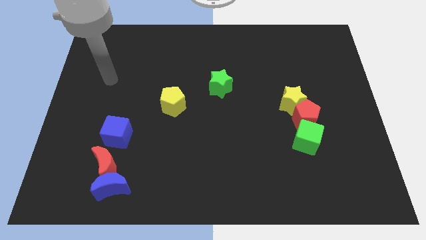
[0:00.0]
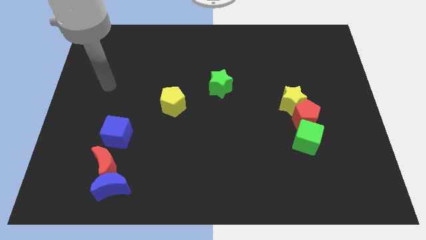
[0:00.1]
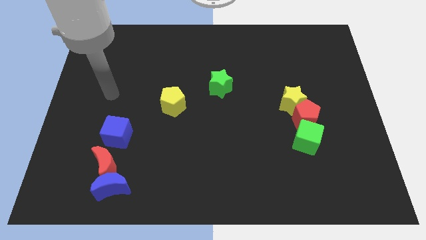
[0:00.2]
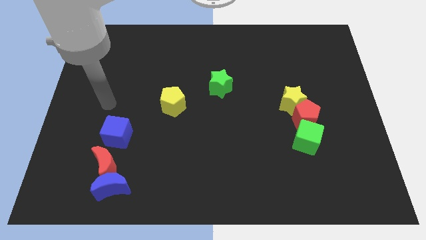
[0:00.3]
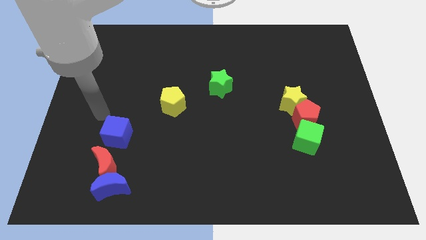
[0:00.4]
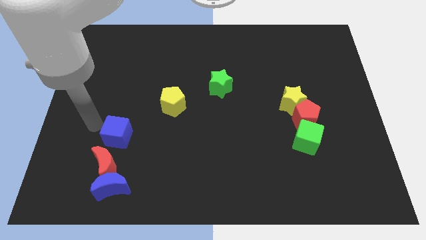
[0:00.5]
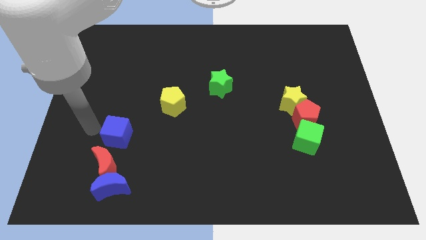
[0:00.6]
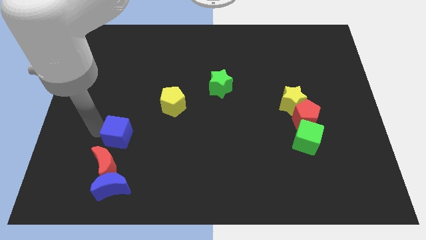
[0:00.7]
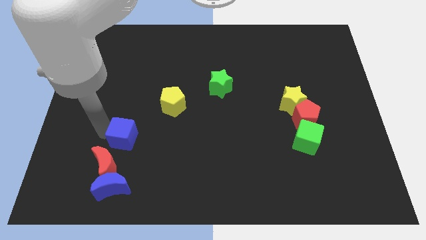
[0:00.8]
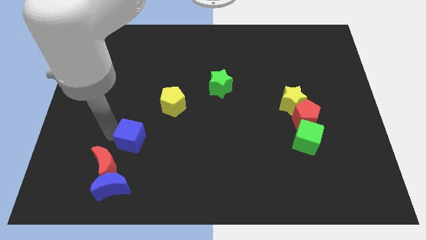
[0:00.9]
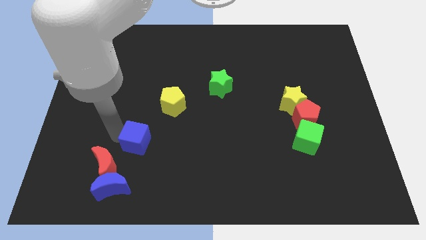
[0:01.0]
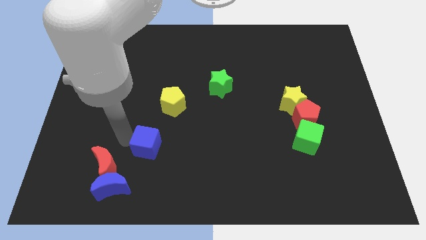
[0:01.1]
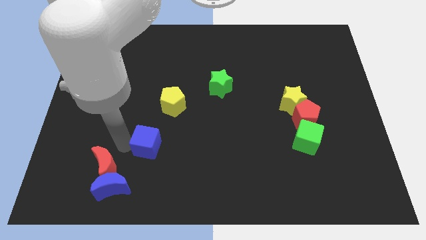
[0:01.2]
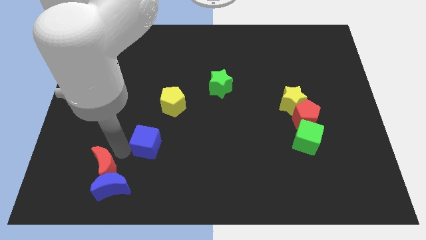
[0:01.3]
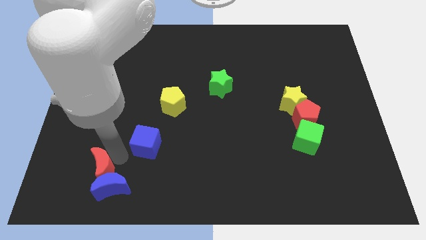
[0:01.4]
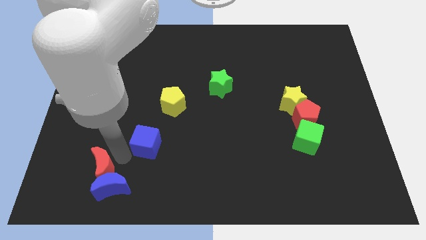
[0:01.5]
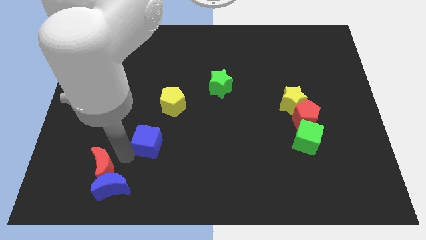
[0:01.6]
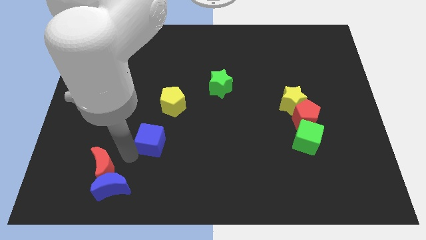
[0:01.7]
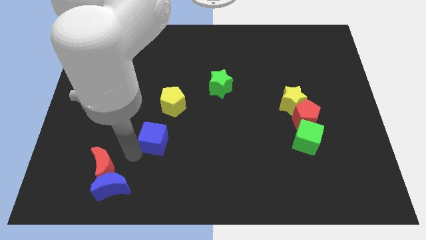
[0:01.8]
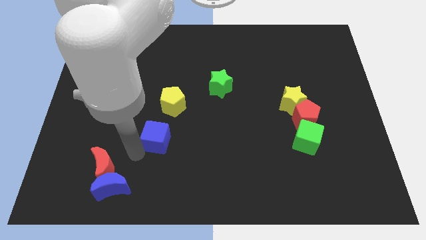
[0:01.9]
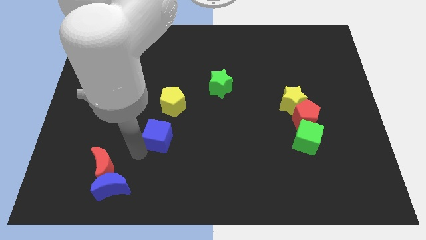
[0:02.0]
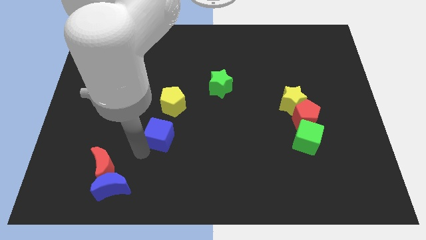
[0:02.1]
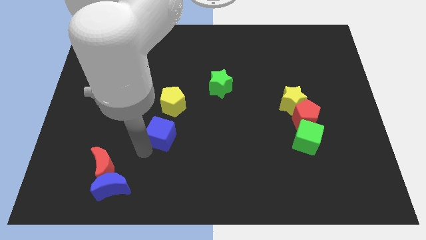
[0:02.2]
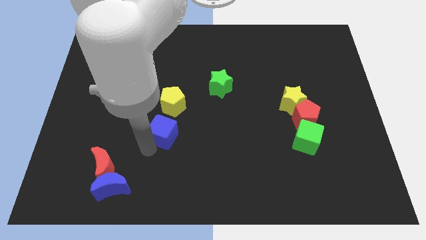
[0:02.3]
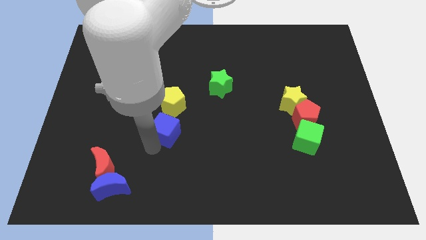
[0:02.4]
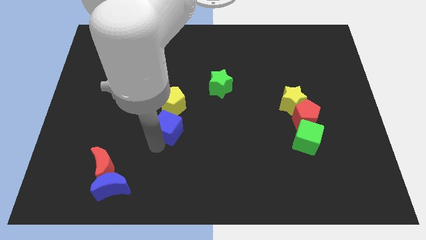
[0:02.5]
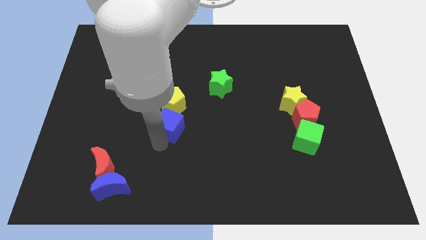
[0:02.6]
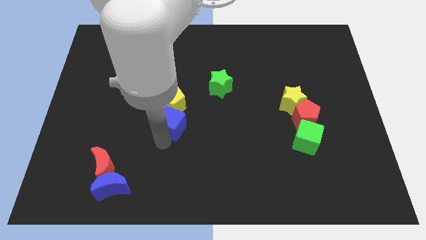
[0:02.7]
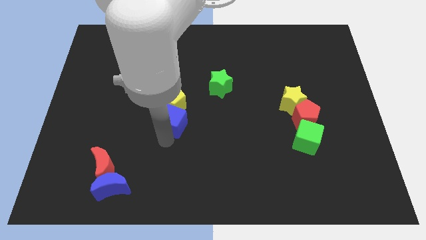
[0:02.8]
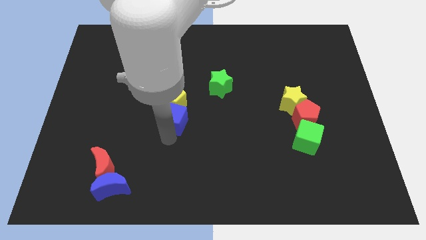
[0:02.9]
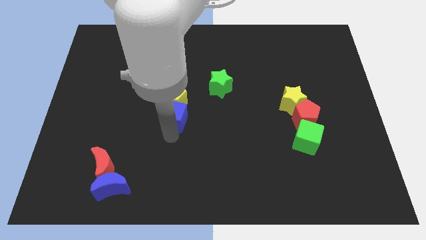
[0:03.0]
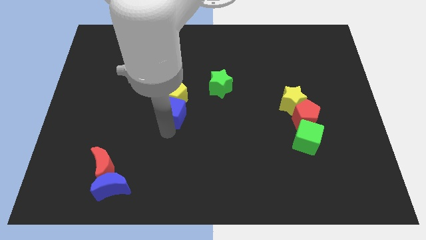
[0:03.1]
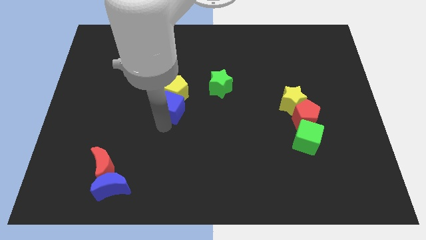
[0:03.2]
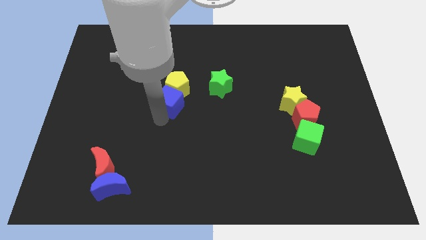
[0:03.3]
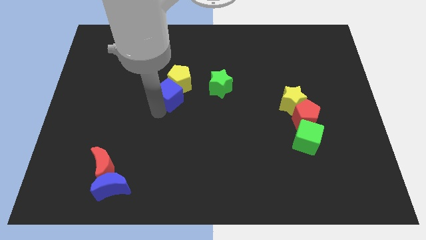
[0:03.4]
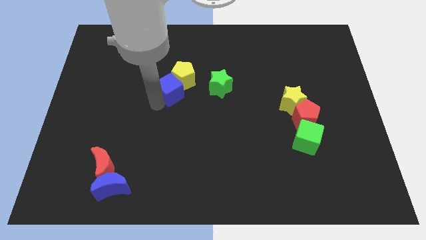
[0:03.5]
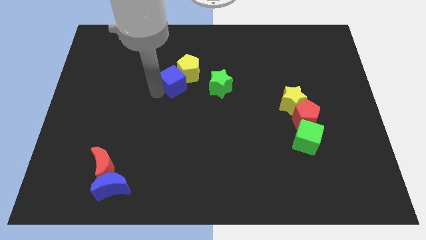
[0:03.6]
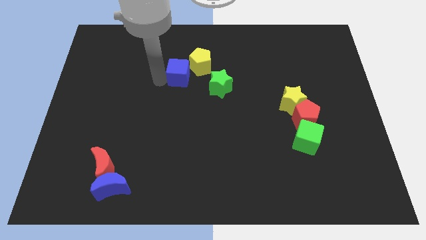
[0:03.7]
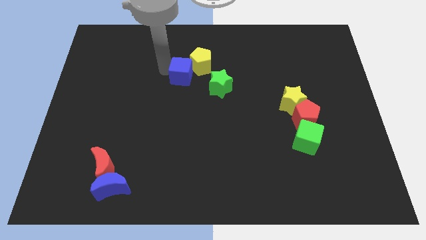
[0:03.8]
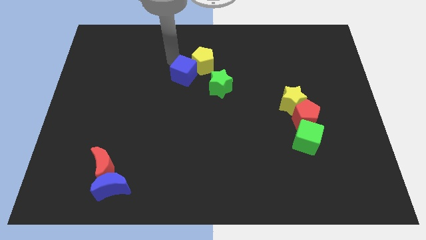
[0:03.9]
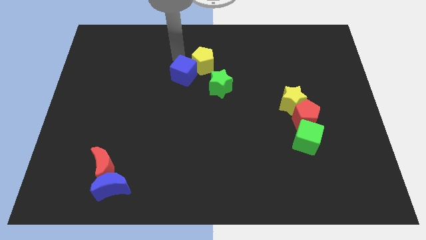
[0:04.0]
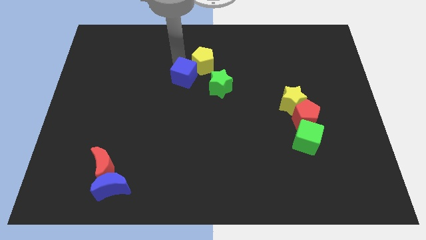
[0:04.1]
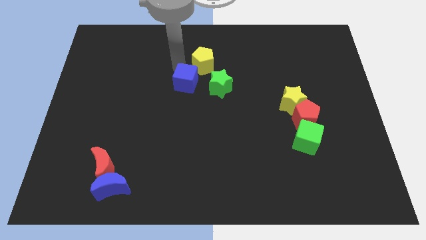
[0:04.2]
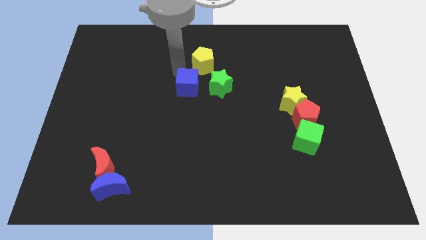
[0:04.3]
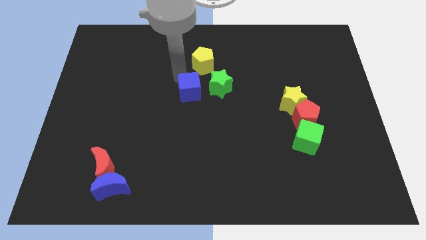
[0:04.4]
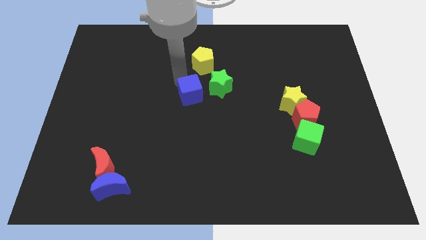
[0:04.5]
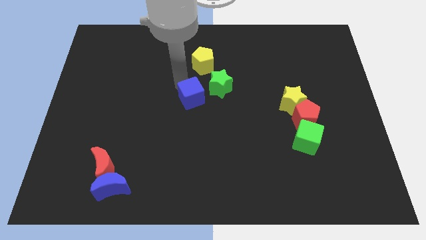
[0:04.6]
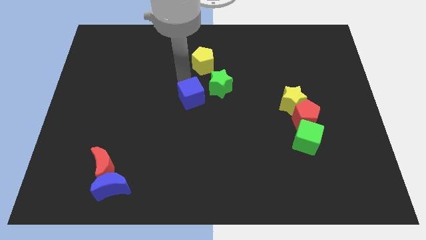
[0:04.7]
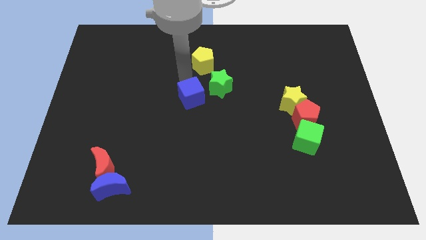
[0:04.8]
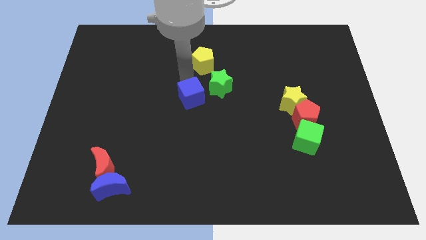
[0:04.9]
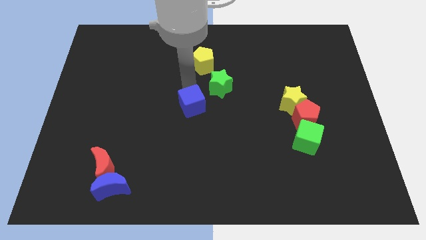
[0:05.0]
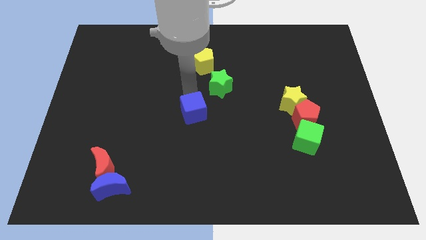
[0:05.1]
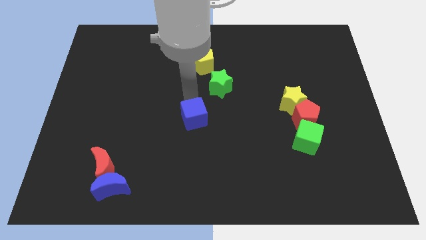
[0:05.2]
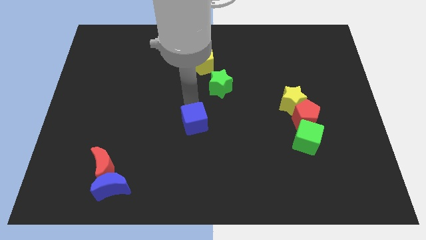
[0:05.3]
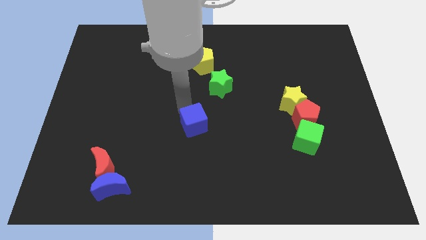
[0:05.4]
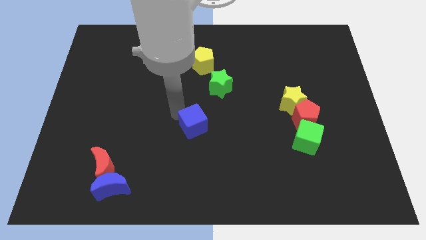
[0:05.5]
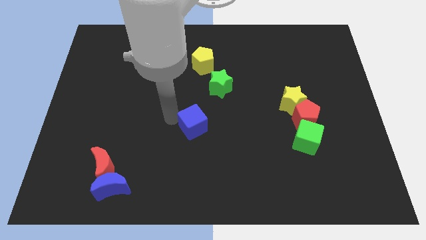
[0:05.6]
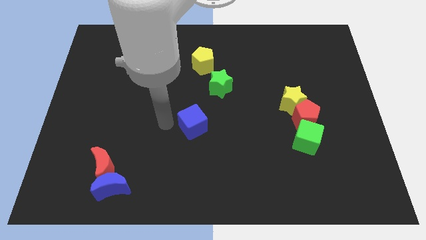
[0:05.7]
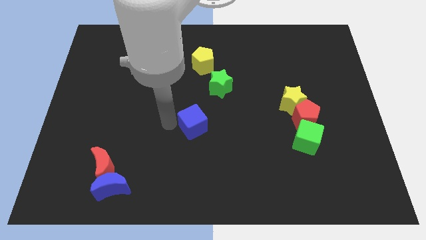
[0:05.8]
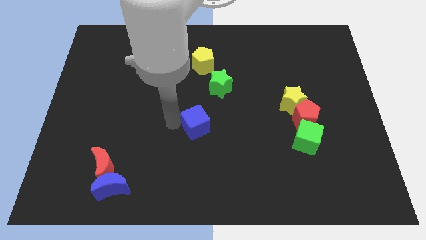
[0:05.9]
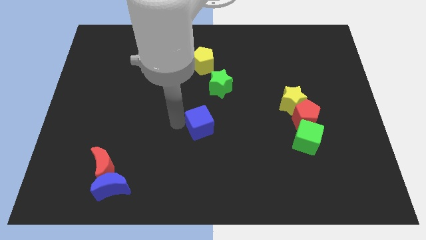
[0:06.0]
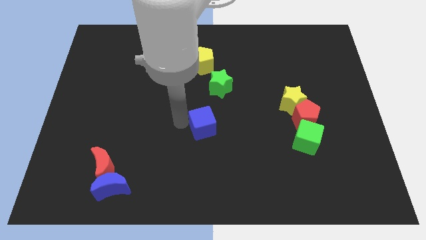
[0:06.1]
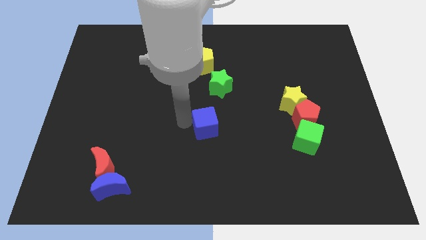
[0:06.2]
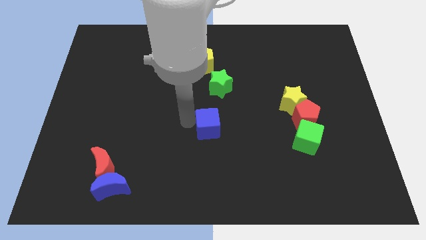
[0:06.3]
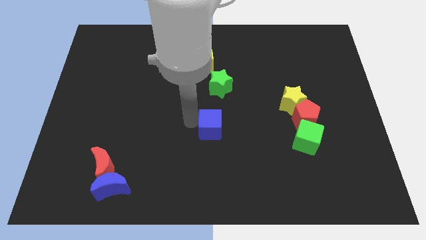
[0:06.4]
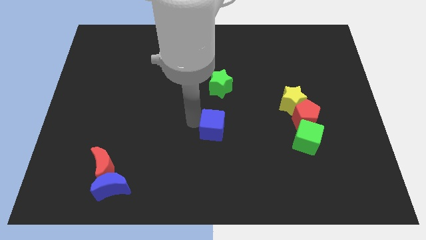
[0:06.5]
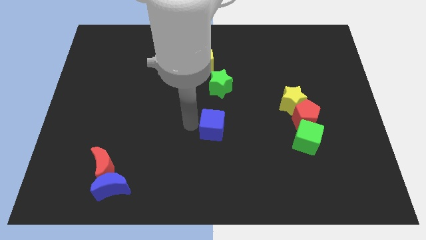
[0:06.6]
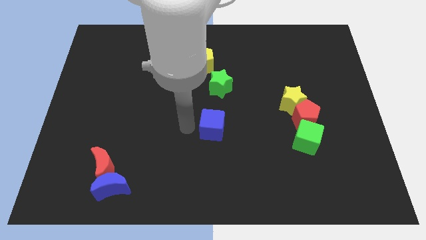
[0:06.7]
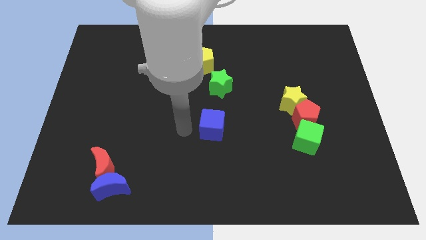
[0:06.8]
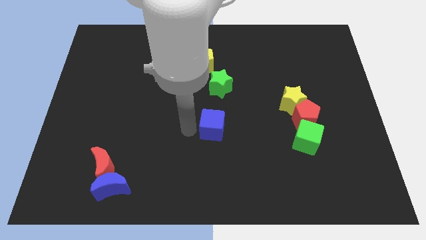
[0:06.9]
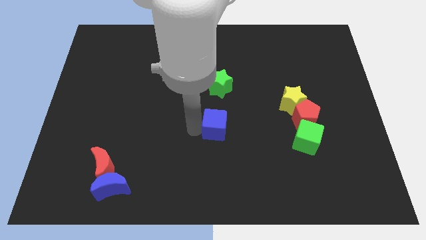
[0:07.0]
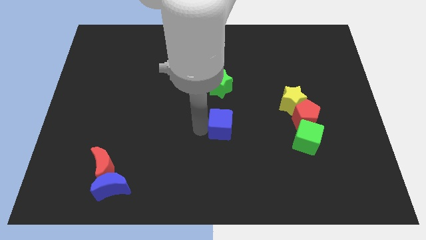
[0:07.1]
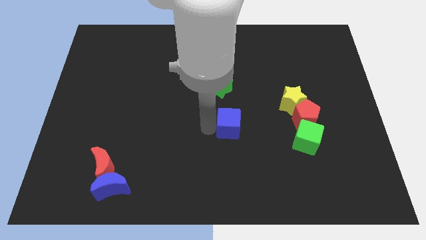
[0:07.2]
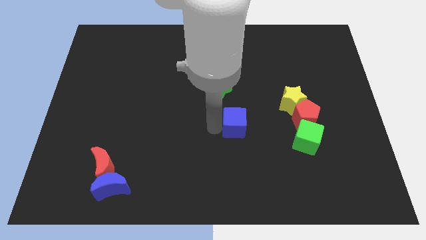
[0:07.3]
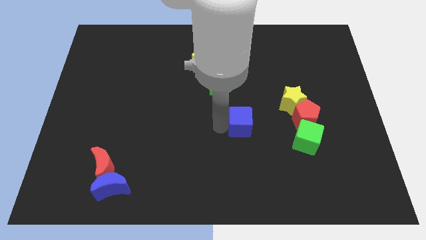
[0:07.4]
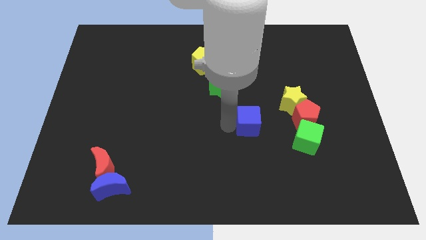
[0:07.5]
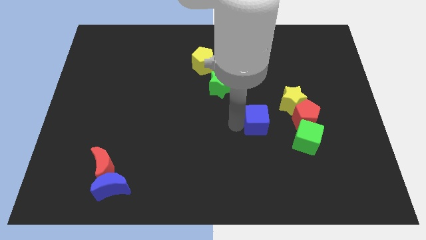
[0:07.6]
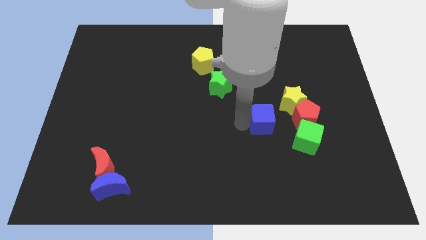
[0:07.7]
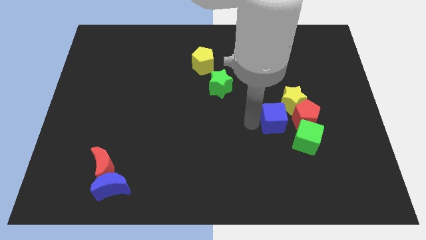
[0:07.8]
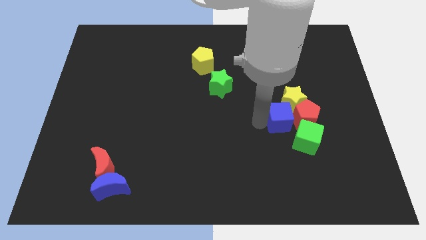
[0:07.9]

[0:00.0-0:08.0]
put the blue cube towards the red pentagon
